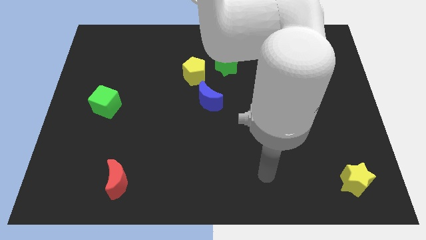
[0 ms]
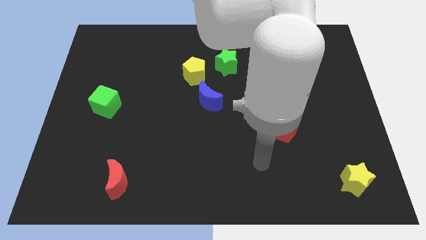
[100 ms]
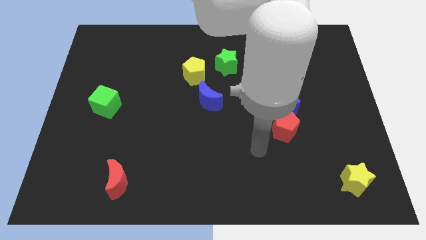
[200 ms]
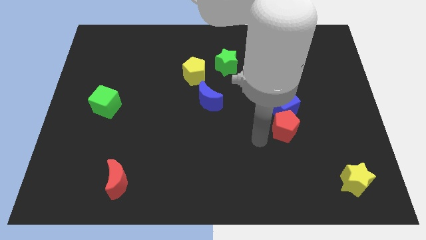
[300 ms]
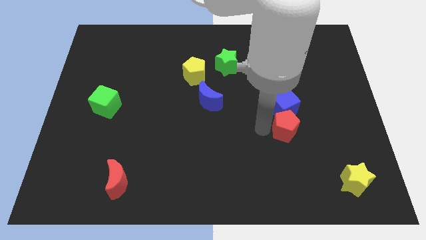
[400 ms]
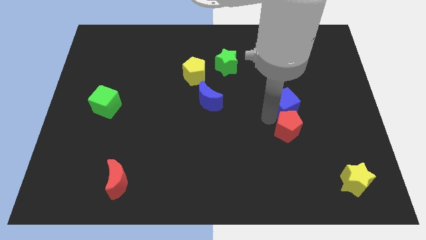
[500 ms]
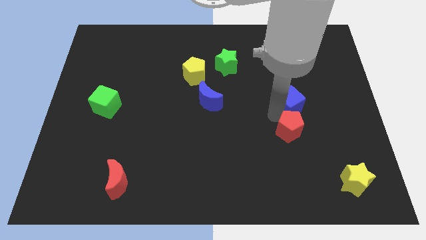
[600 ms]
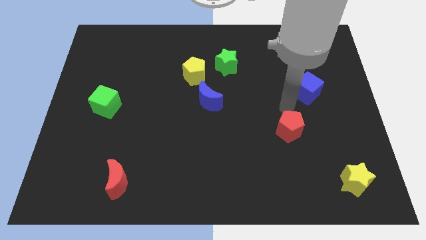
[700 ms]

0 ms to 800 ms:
move the red pentagon away from the blue cube

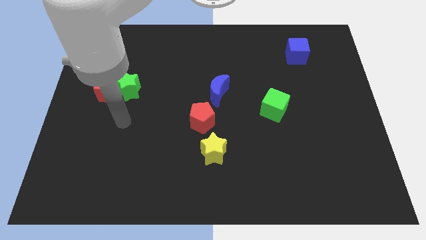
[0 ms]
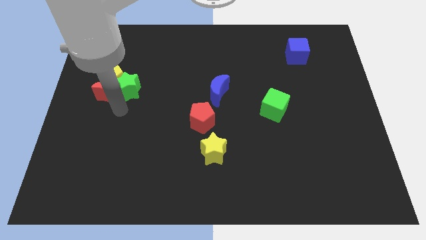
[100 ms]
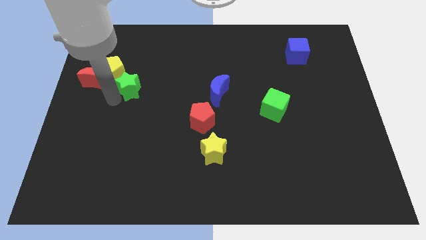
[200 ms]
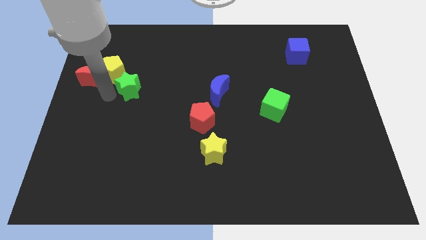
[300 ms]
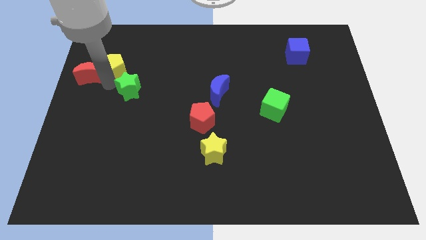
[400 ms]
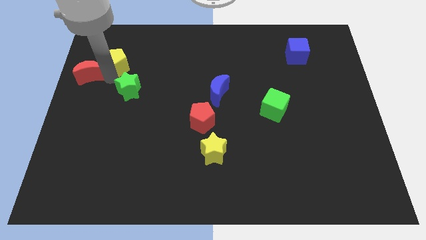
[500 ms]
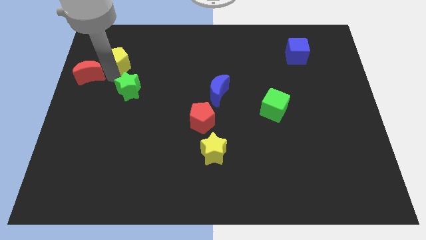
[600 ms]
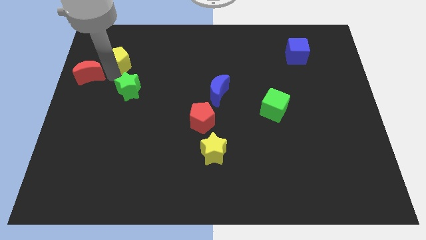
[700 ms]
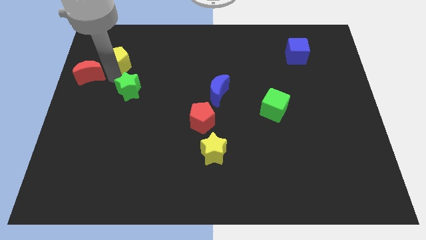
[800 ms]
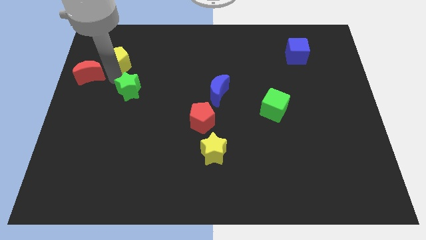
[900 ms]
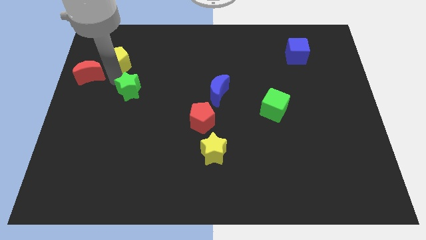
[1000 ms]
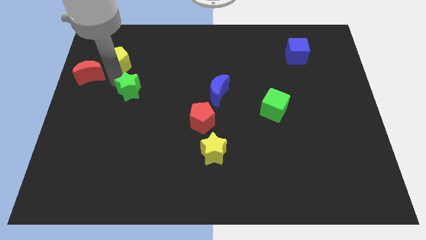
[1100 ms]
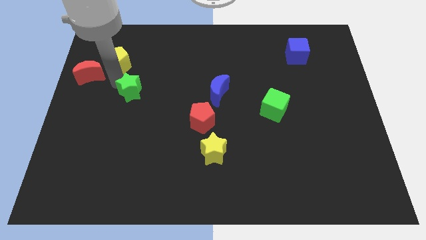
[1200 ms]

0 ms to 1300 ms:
pull the green star apart from the red moon and yellow pentagon

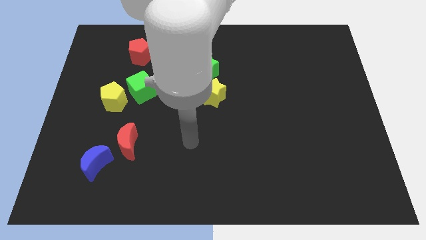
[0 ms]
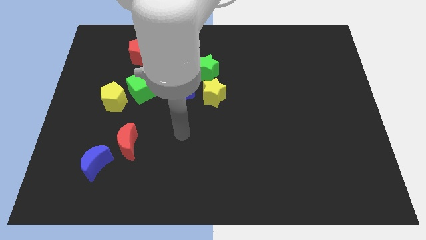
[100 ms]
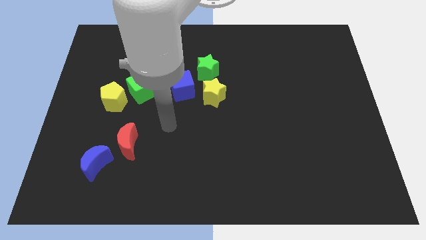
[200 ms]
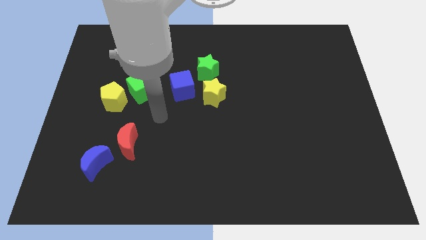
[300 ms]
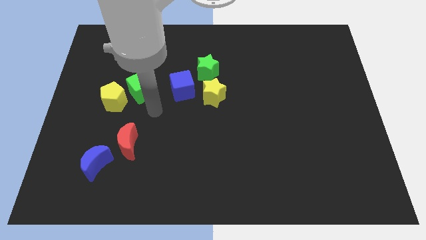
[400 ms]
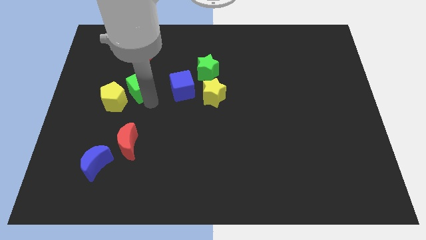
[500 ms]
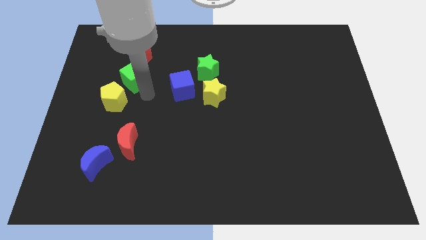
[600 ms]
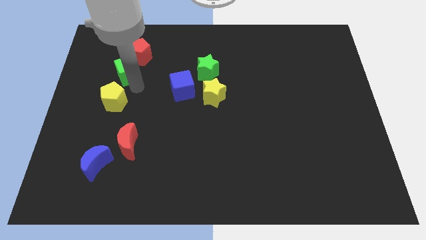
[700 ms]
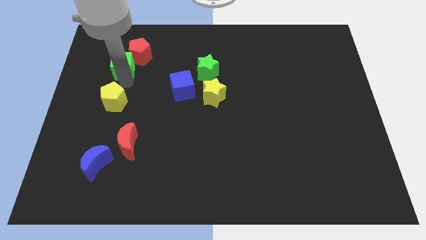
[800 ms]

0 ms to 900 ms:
separate the yellow pentagon from the green cube

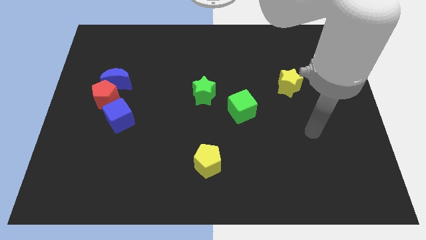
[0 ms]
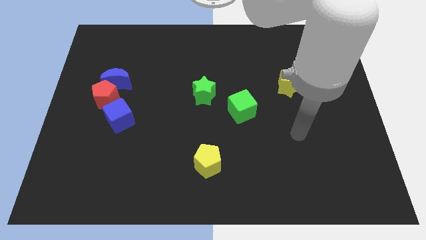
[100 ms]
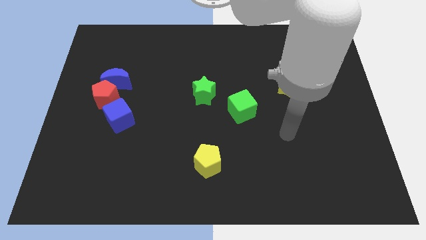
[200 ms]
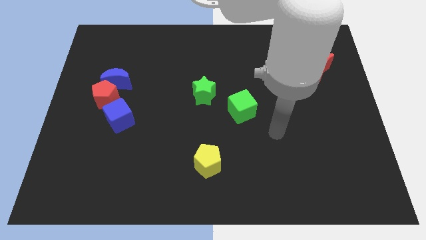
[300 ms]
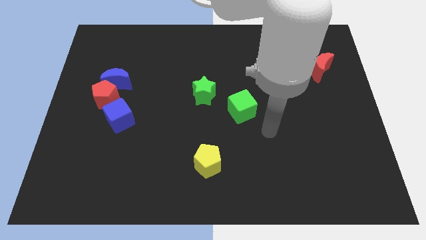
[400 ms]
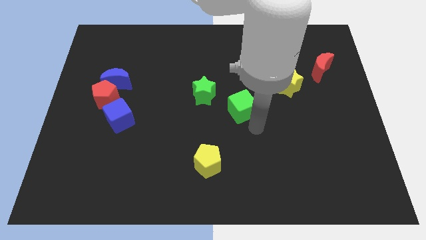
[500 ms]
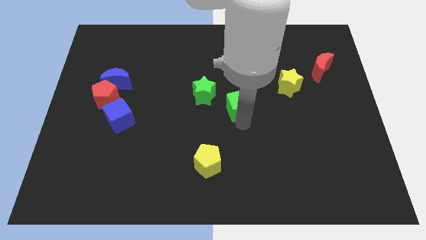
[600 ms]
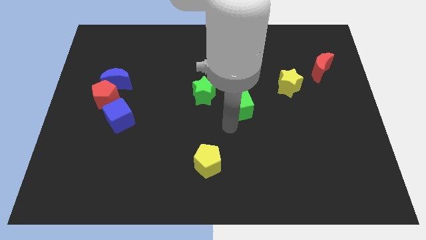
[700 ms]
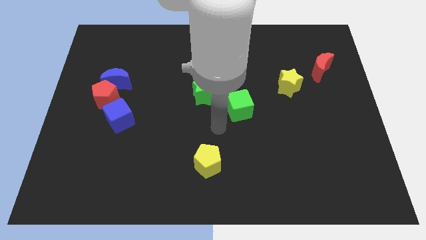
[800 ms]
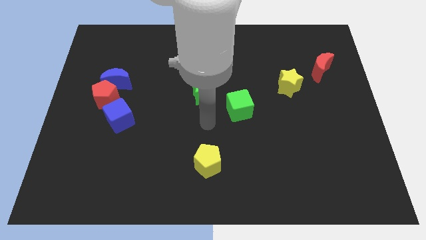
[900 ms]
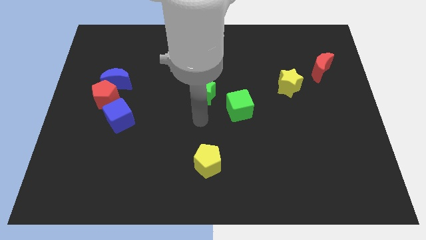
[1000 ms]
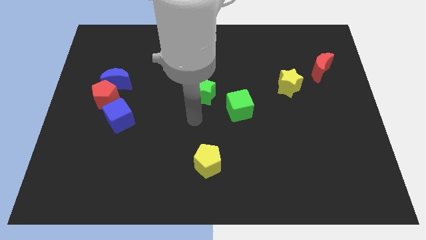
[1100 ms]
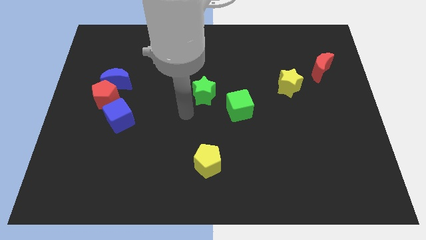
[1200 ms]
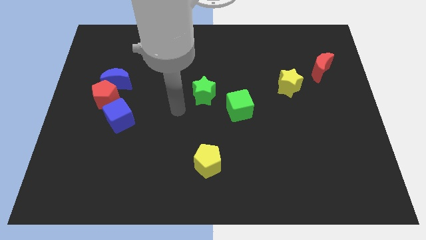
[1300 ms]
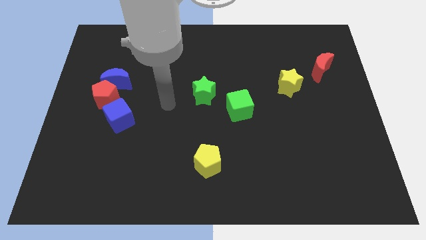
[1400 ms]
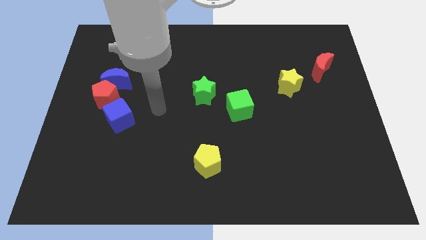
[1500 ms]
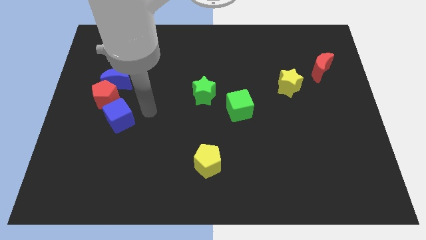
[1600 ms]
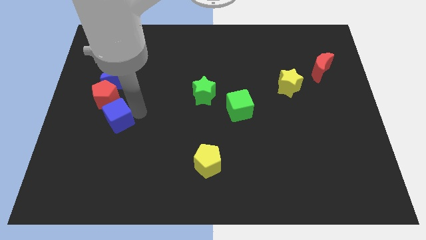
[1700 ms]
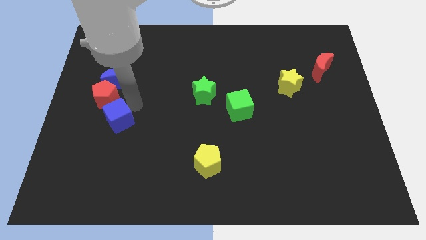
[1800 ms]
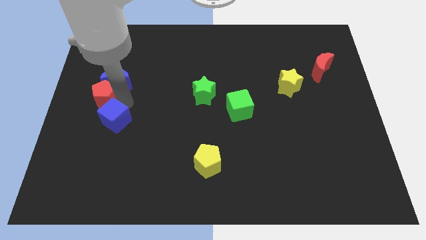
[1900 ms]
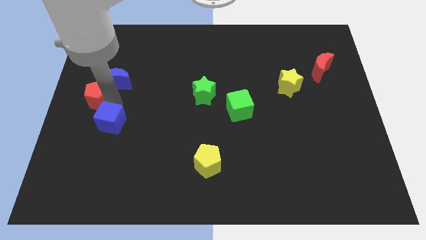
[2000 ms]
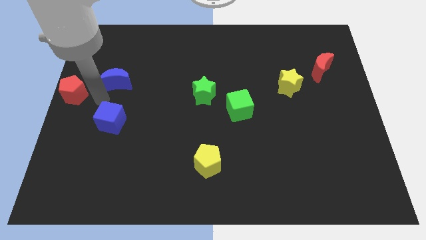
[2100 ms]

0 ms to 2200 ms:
separate the blue moon from the red pentagon

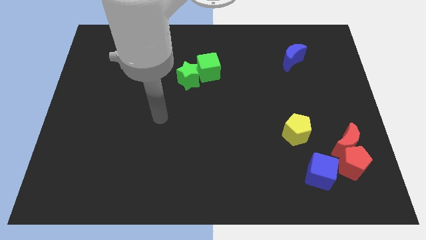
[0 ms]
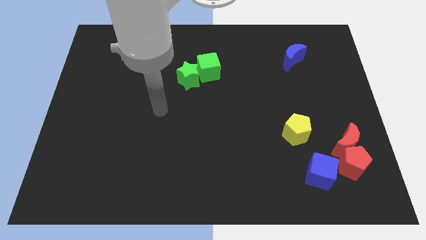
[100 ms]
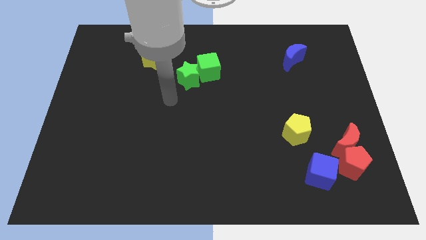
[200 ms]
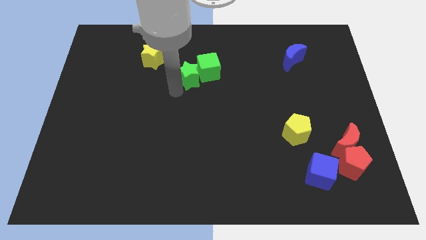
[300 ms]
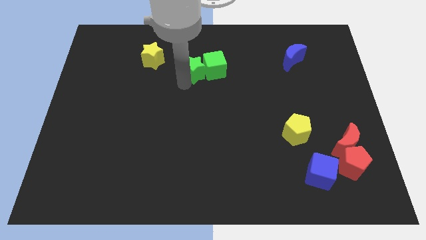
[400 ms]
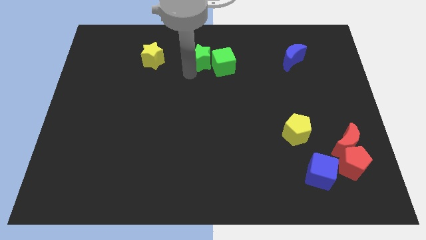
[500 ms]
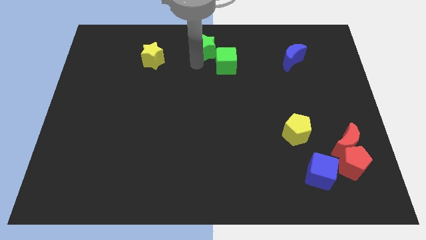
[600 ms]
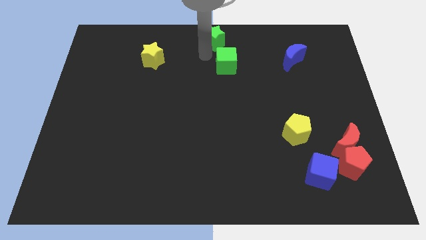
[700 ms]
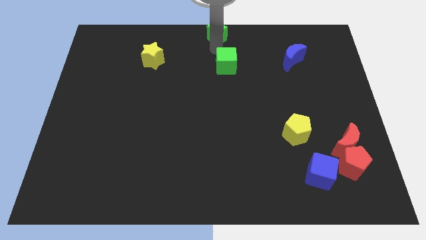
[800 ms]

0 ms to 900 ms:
separate the green cube from the green star

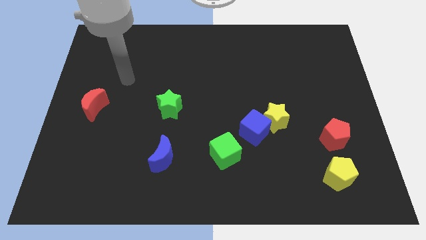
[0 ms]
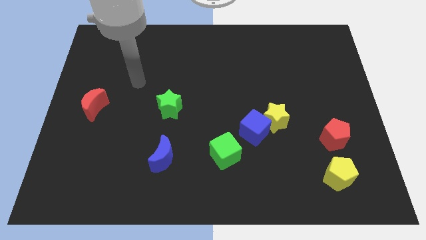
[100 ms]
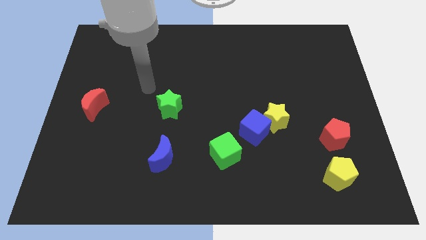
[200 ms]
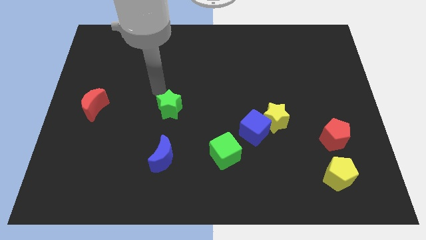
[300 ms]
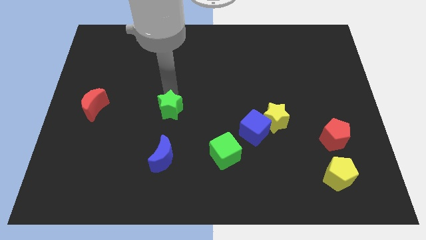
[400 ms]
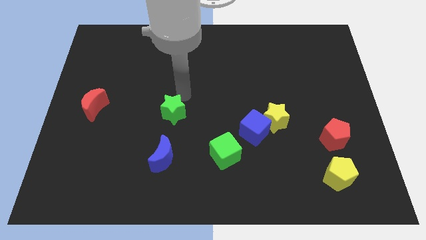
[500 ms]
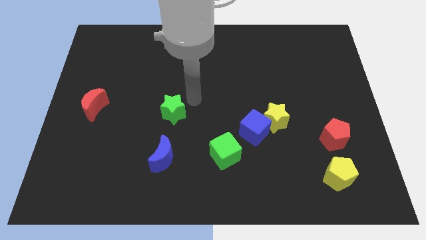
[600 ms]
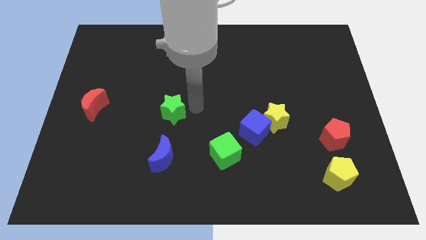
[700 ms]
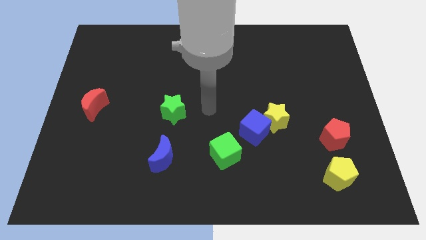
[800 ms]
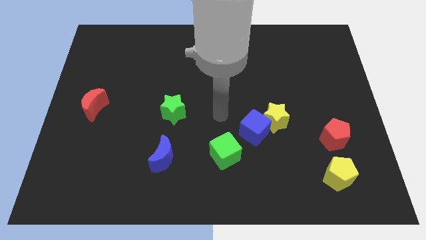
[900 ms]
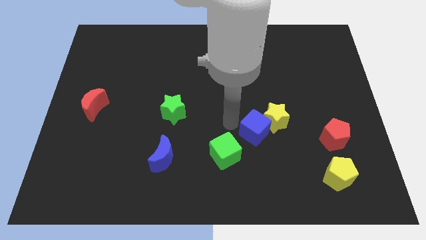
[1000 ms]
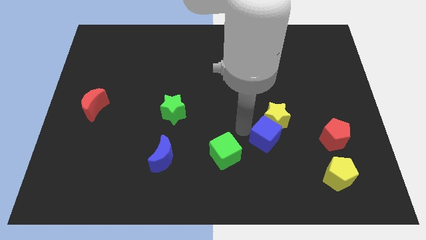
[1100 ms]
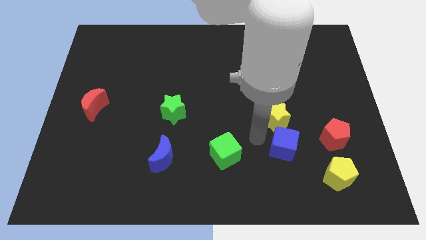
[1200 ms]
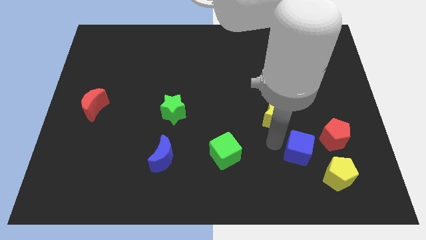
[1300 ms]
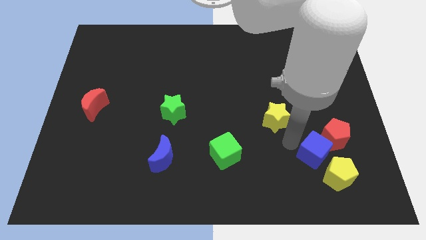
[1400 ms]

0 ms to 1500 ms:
separate the yellow star from the blue cube

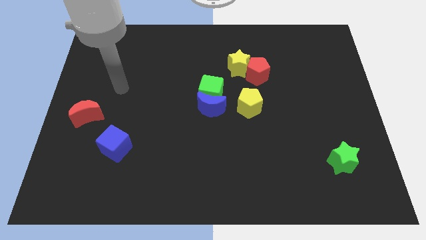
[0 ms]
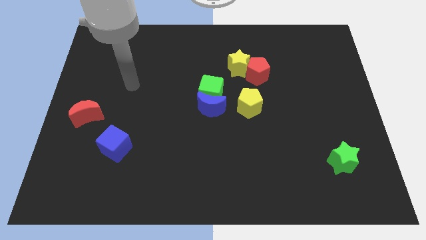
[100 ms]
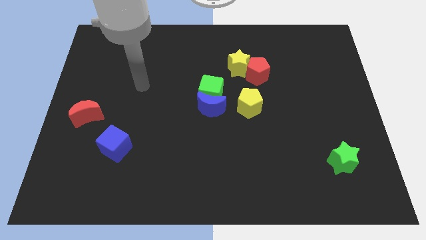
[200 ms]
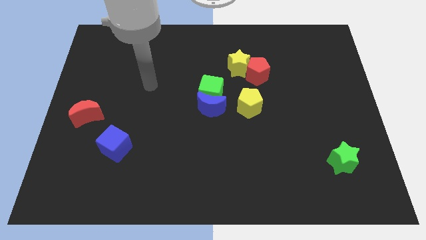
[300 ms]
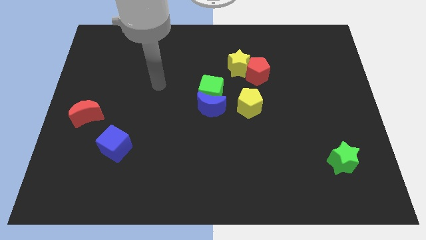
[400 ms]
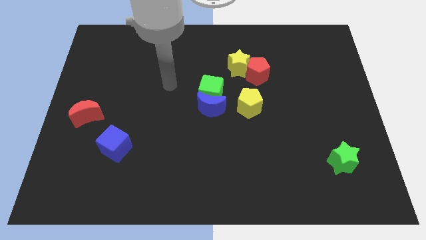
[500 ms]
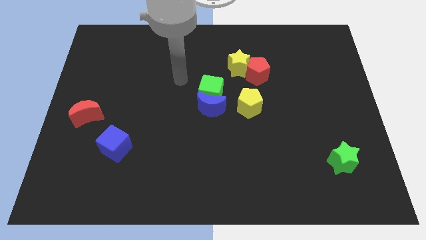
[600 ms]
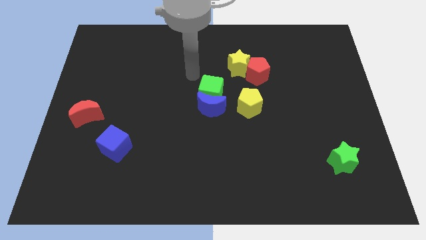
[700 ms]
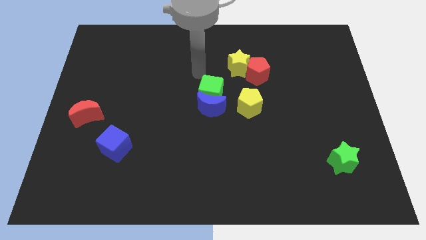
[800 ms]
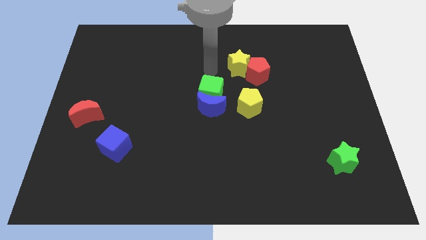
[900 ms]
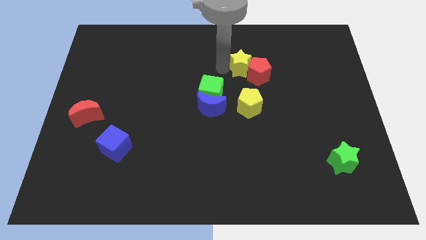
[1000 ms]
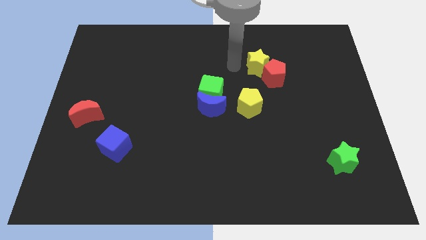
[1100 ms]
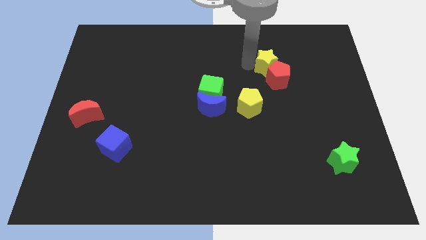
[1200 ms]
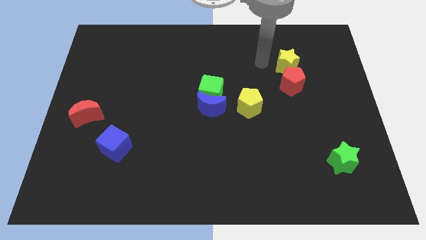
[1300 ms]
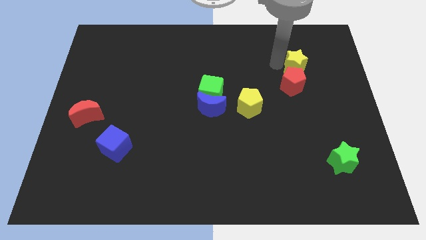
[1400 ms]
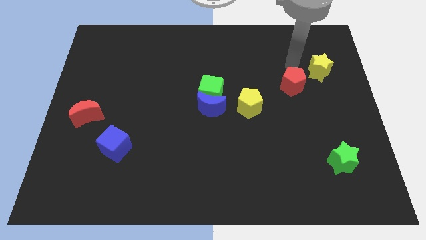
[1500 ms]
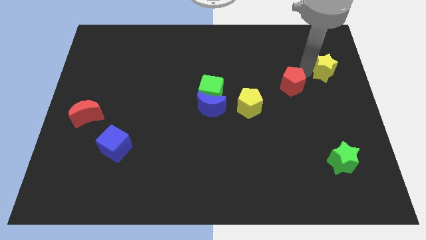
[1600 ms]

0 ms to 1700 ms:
pull the red pentagon apart from the yellow star
